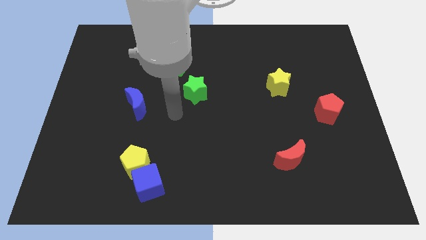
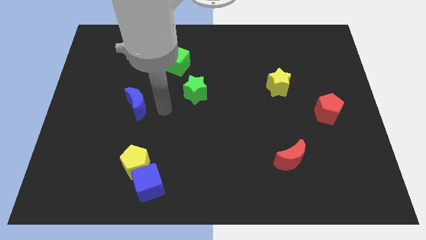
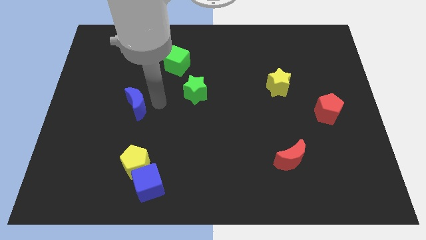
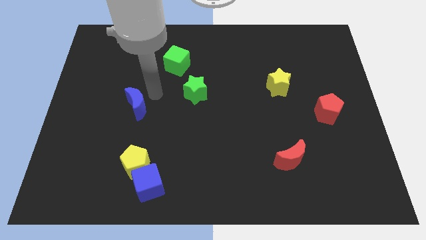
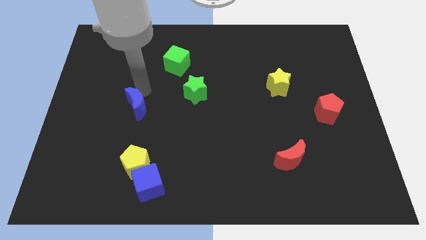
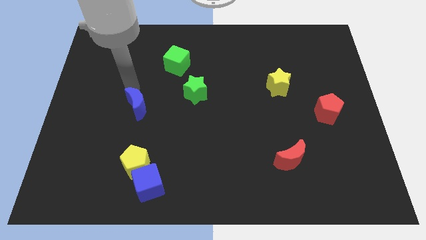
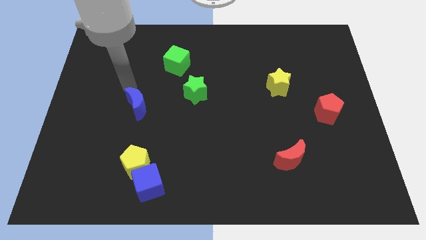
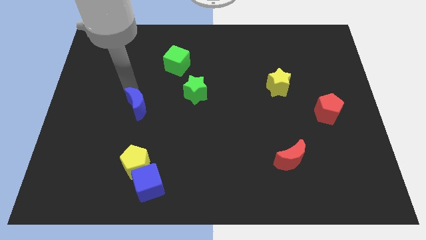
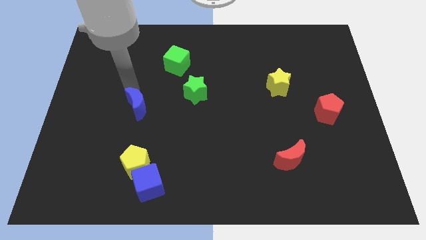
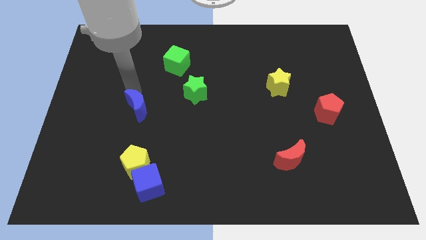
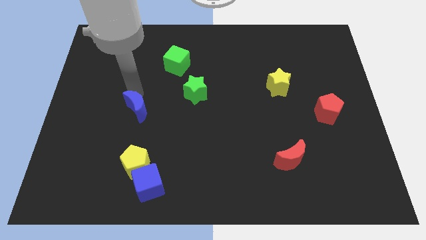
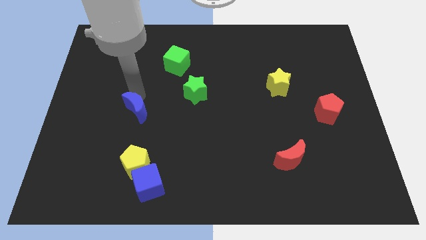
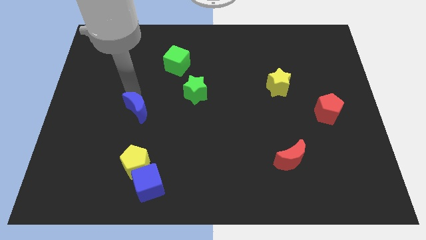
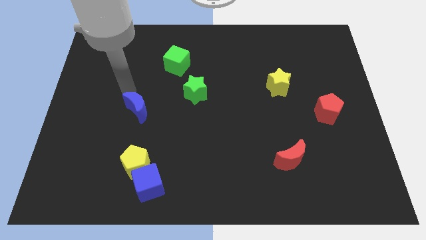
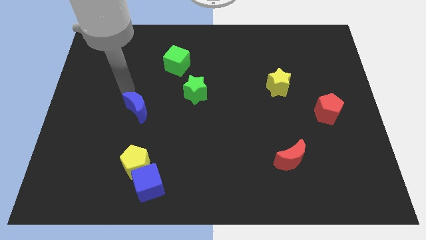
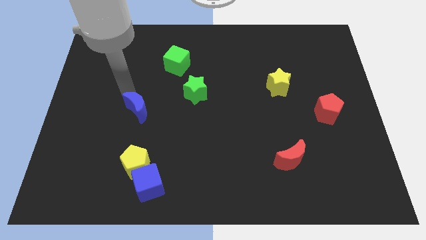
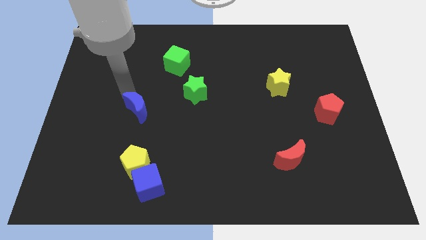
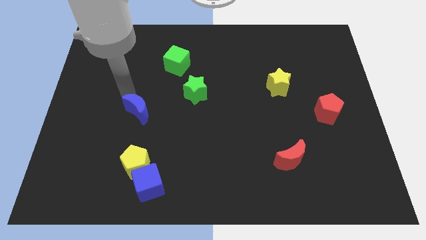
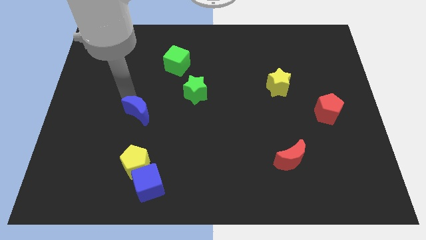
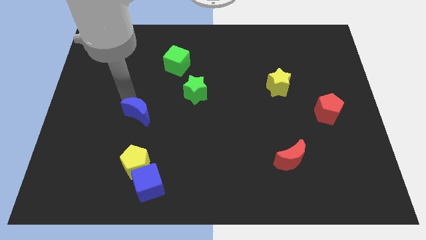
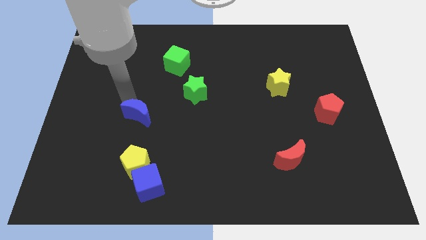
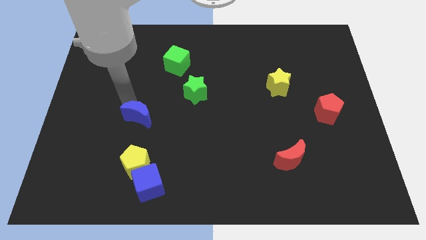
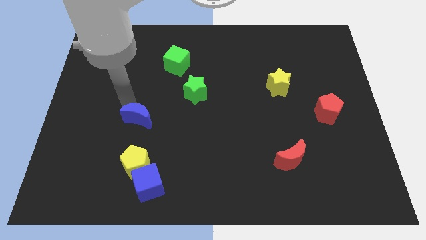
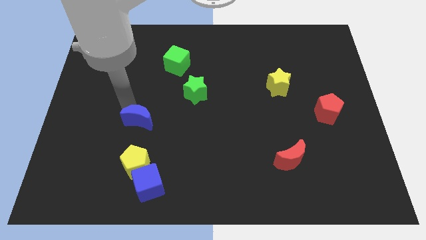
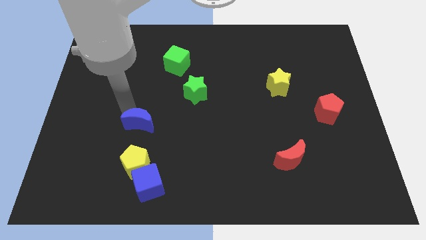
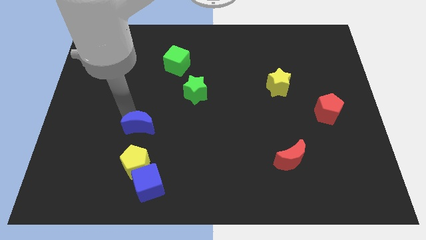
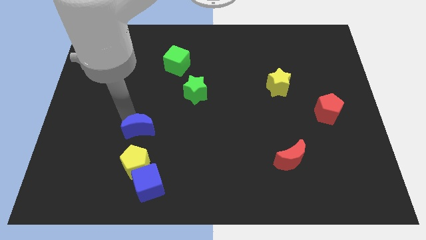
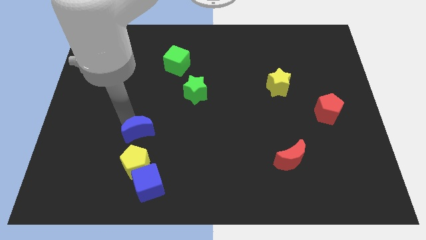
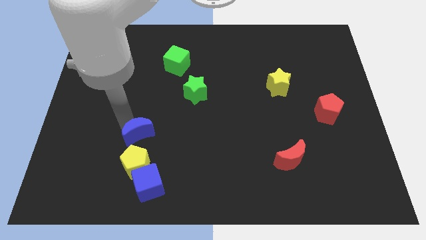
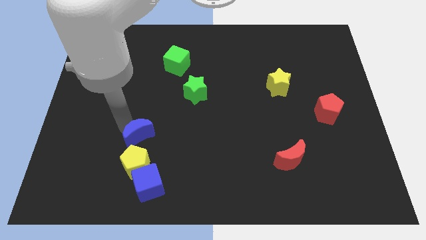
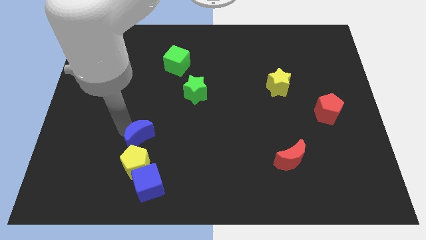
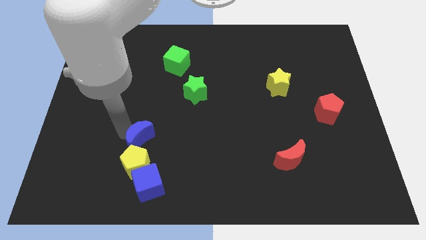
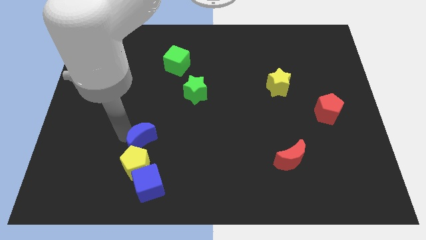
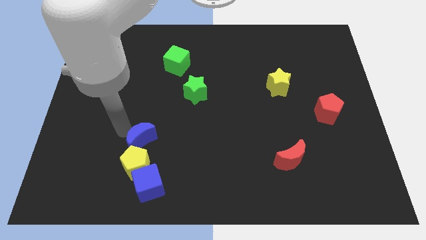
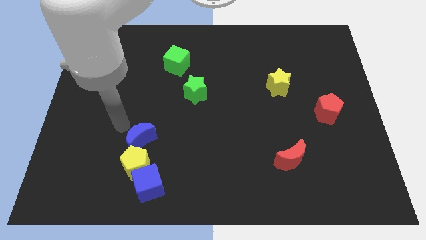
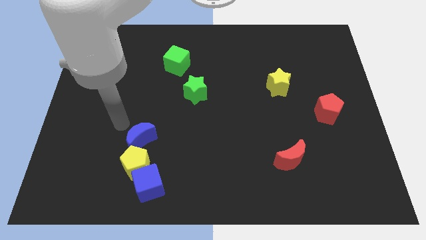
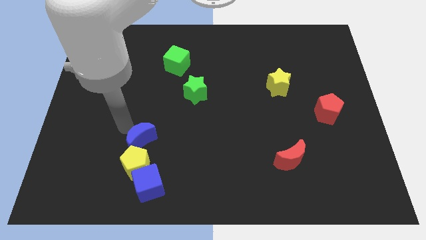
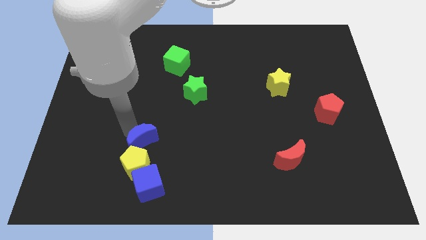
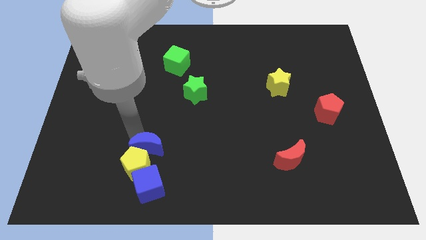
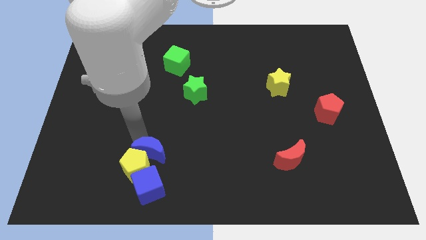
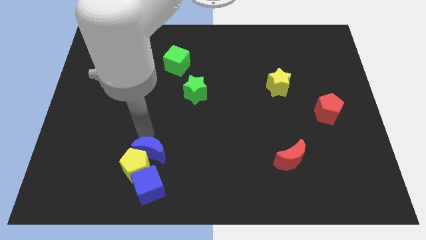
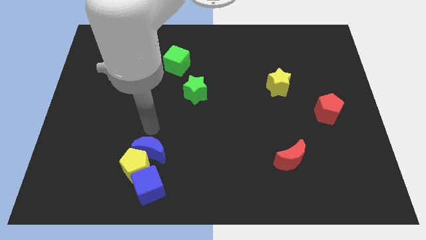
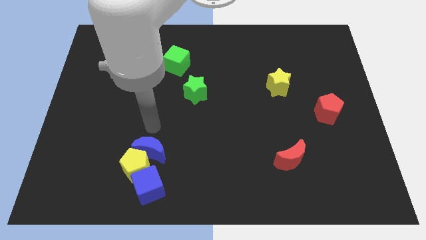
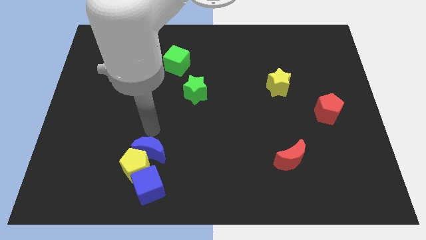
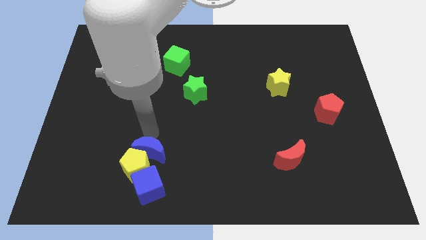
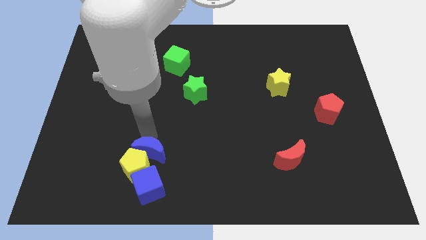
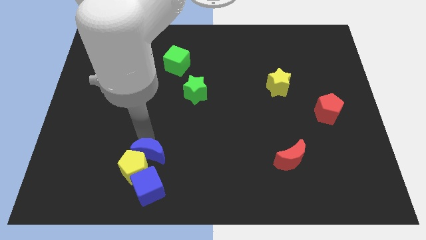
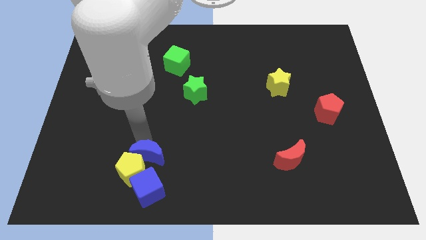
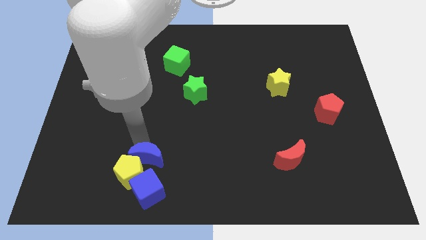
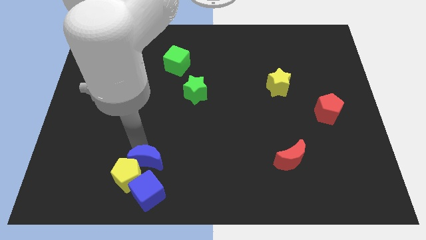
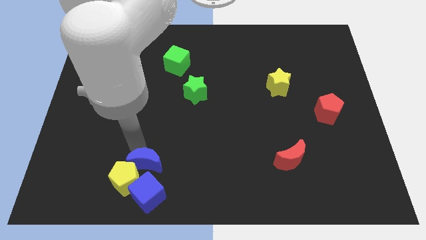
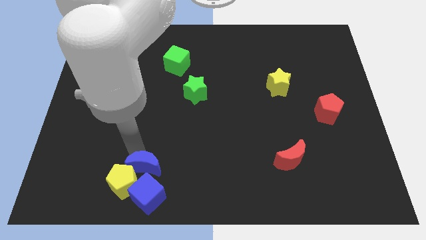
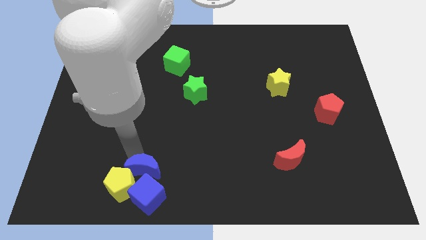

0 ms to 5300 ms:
put the blue moon close to the blue cube

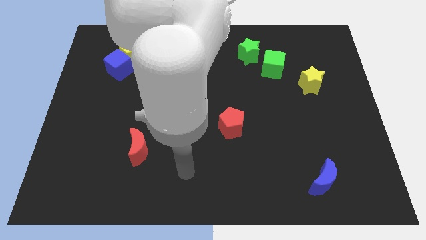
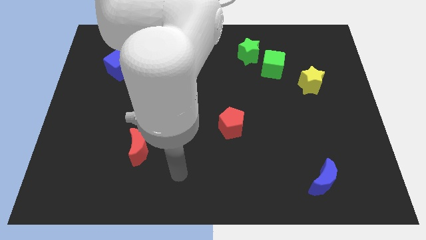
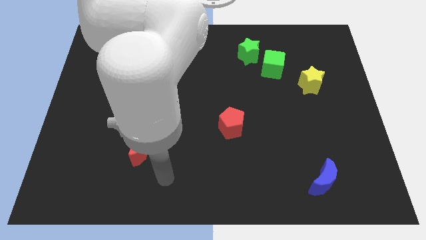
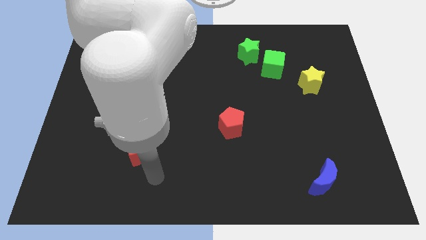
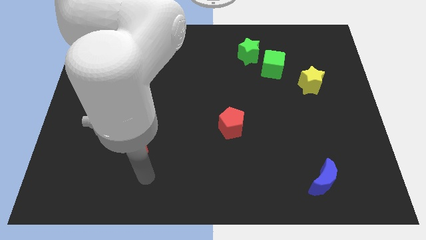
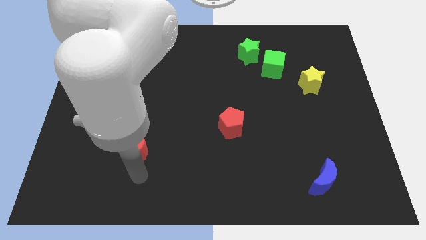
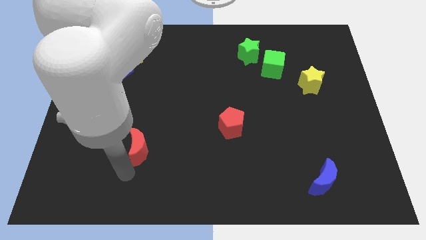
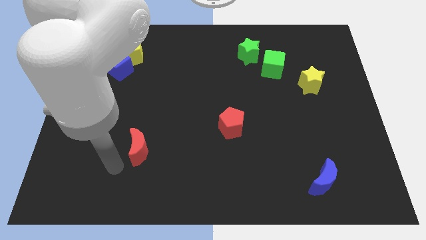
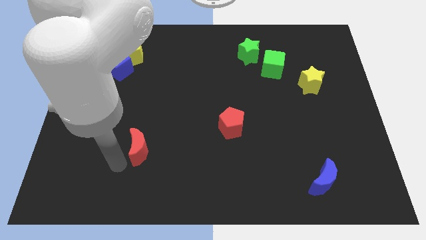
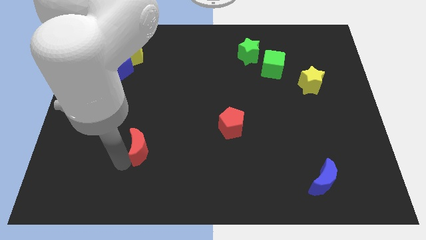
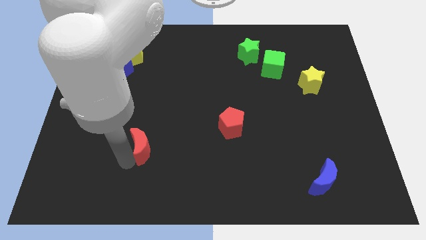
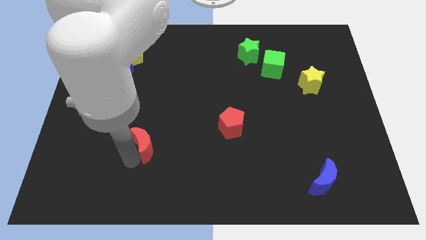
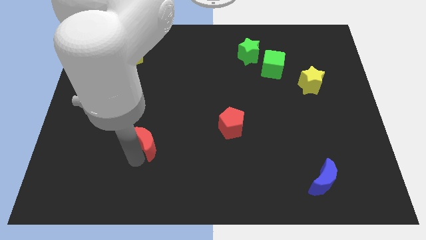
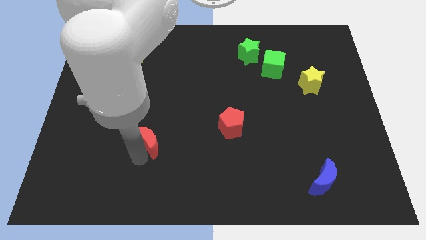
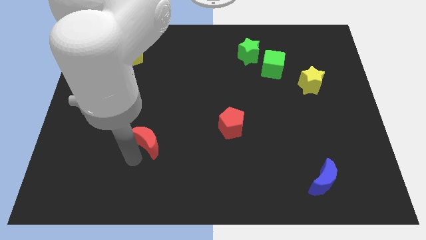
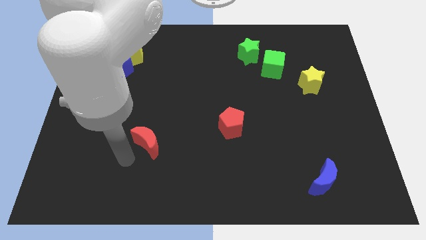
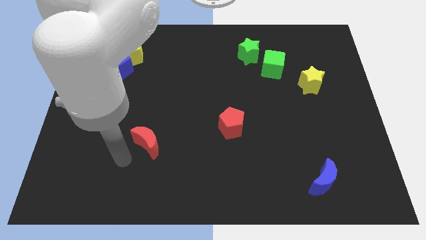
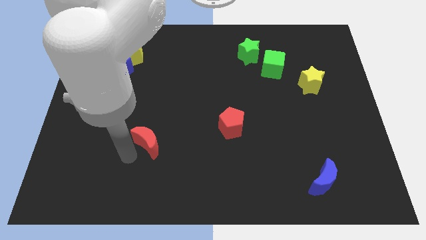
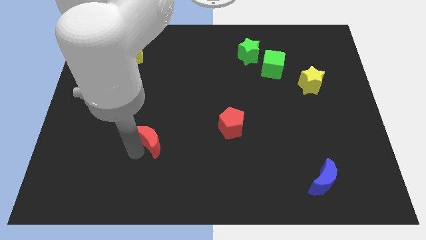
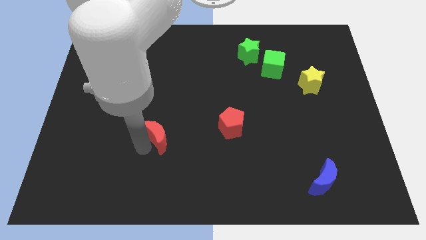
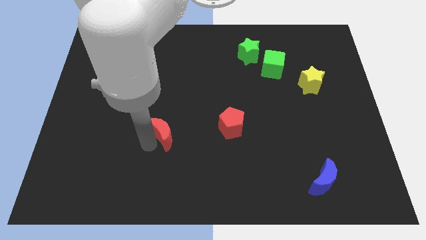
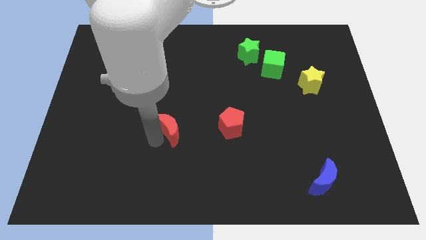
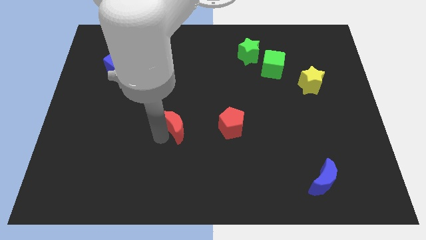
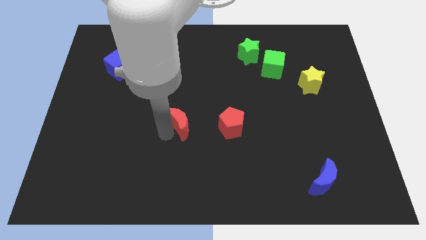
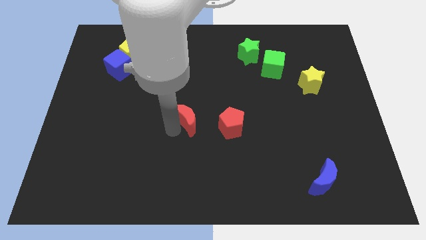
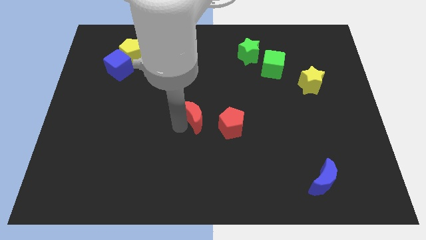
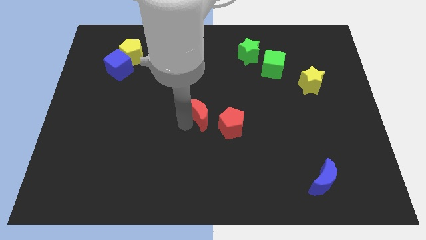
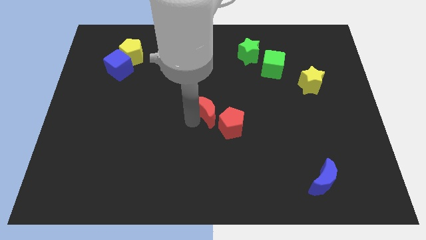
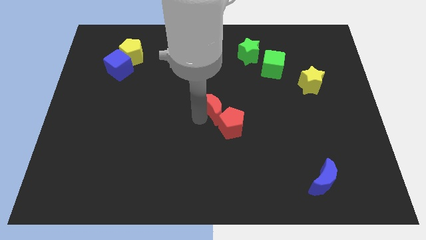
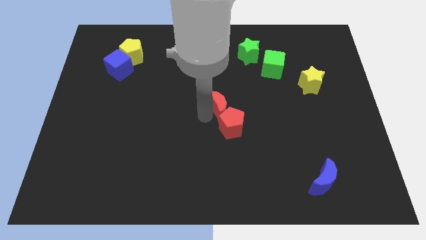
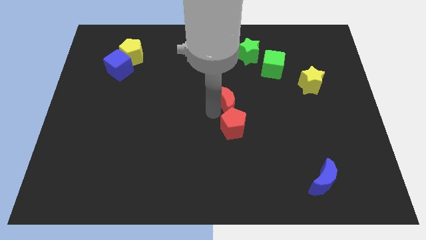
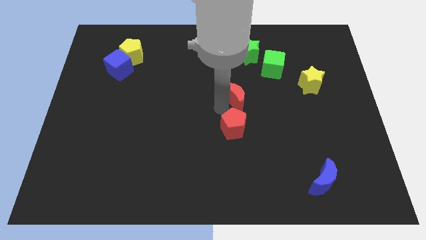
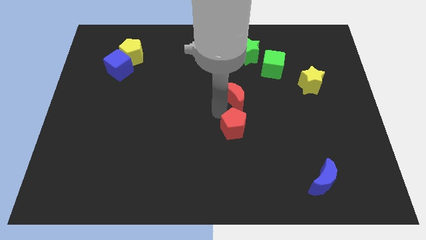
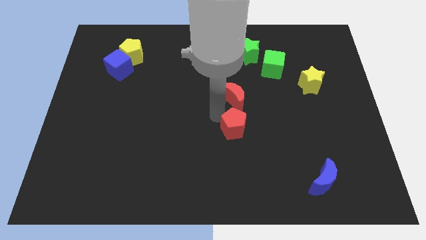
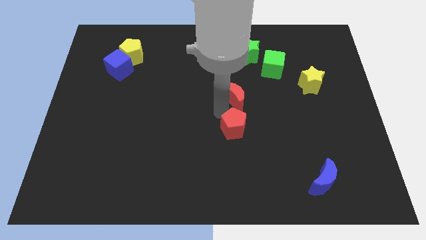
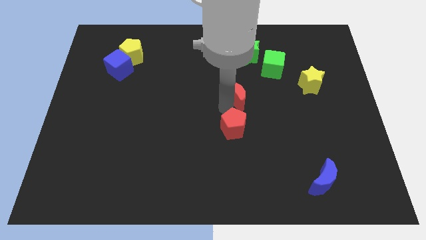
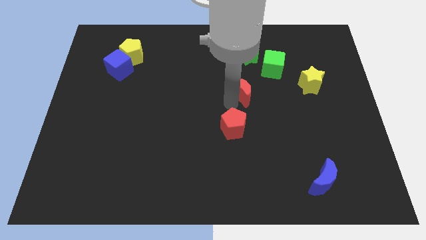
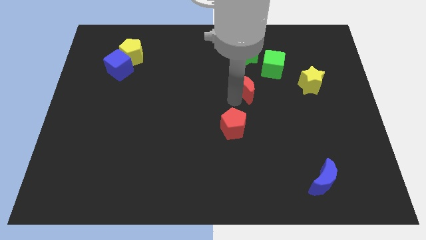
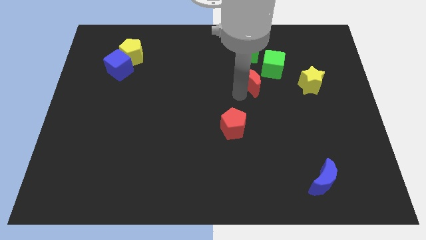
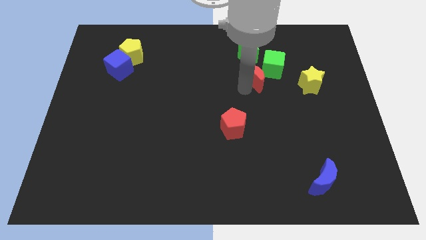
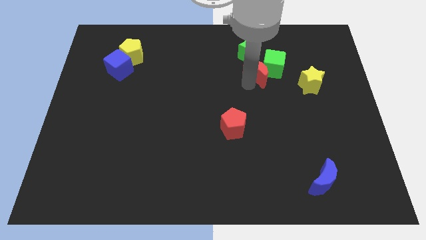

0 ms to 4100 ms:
put the red moon to the green cube
